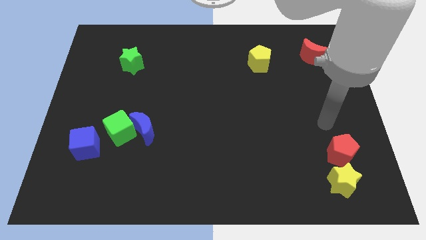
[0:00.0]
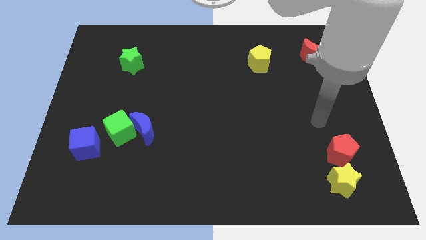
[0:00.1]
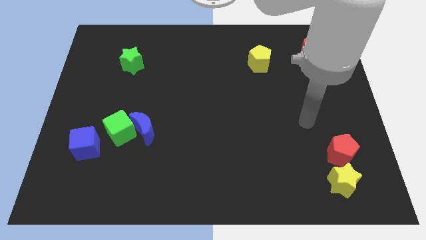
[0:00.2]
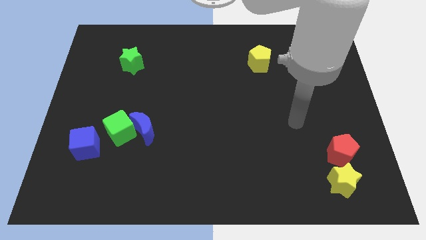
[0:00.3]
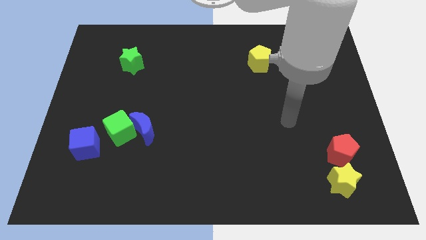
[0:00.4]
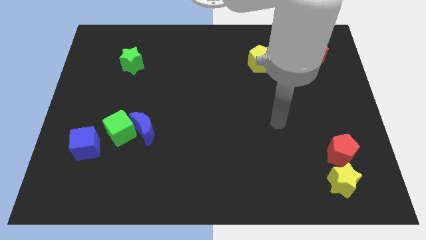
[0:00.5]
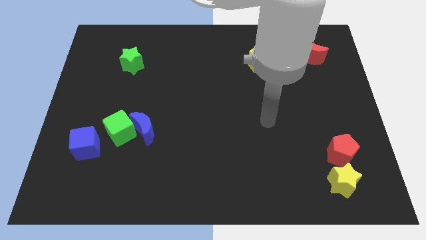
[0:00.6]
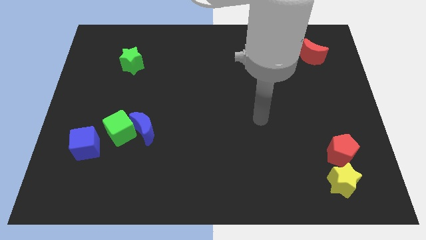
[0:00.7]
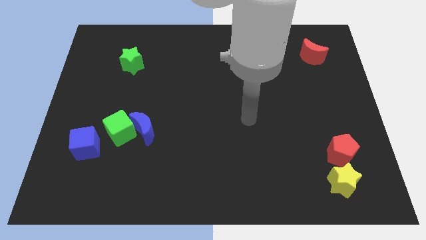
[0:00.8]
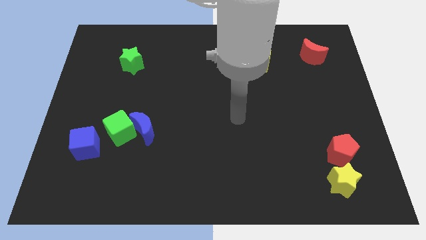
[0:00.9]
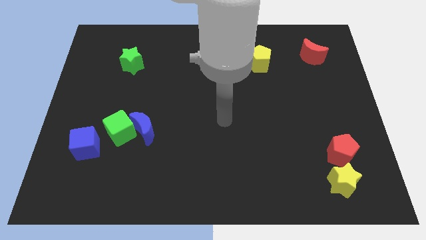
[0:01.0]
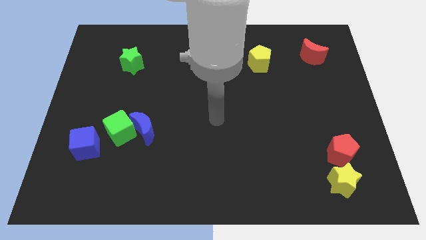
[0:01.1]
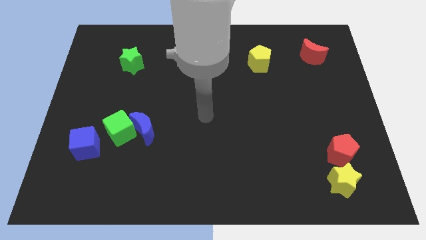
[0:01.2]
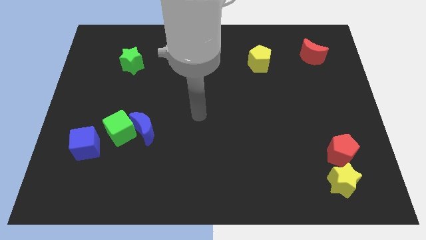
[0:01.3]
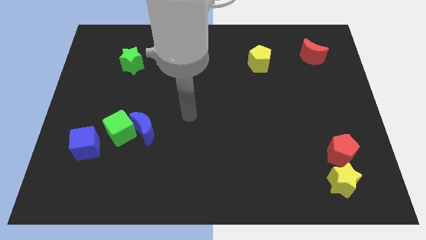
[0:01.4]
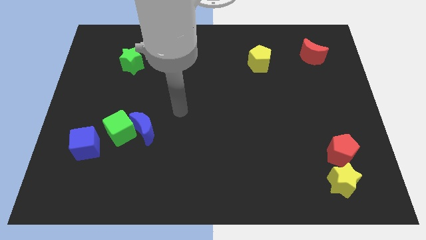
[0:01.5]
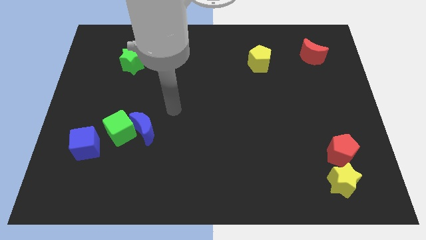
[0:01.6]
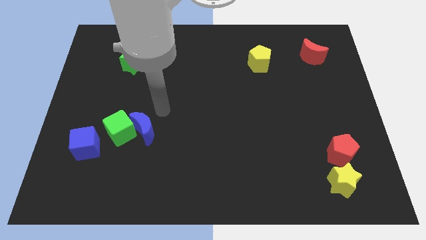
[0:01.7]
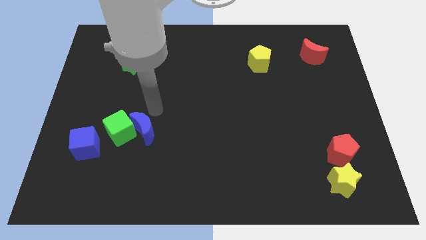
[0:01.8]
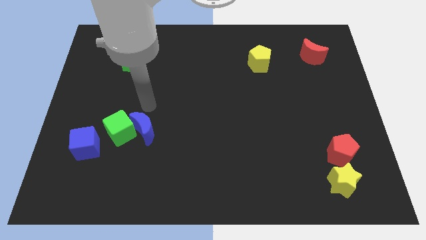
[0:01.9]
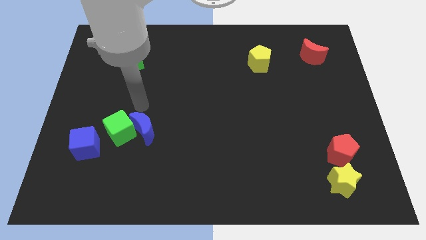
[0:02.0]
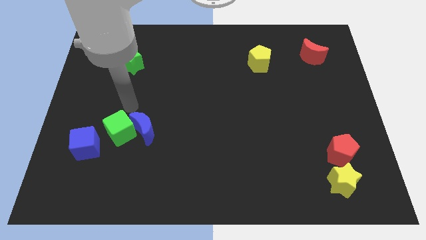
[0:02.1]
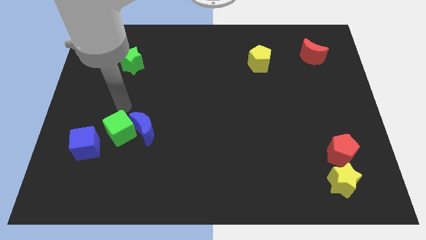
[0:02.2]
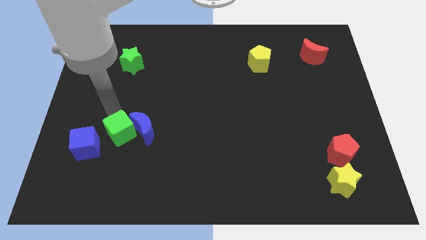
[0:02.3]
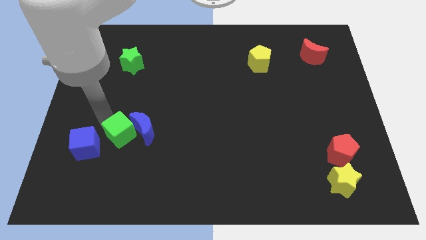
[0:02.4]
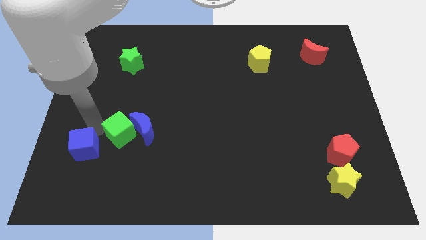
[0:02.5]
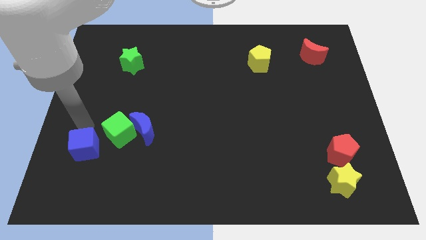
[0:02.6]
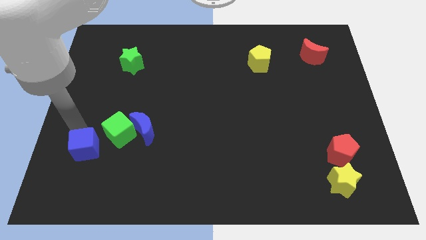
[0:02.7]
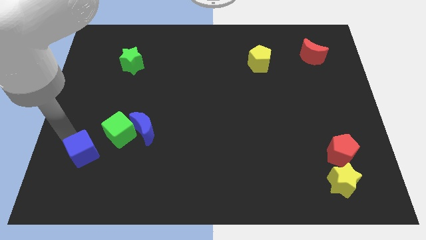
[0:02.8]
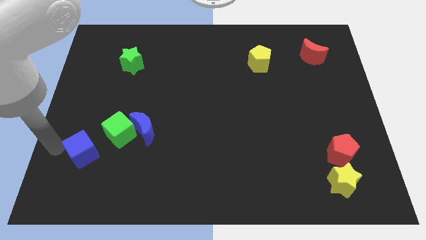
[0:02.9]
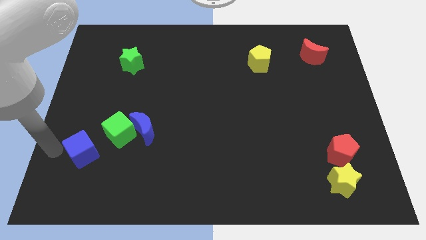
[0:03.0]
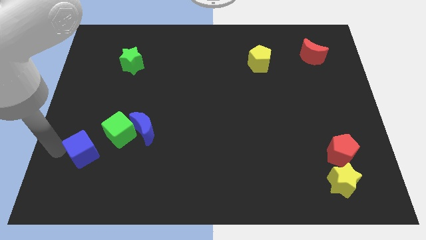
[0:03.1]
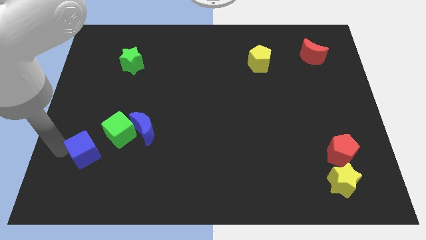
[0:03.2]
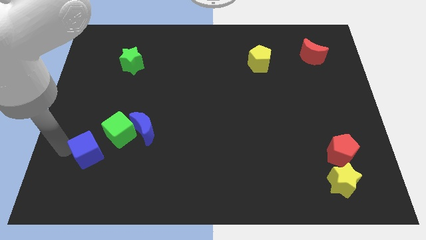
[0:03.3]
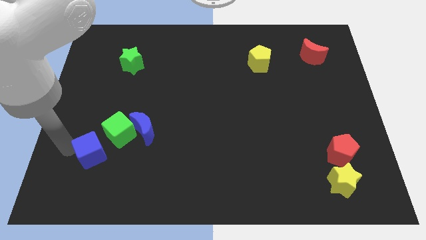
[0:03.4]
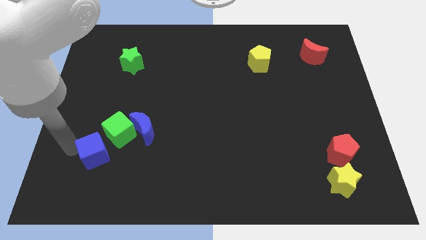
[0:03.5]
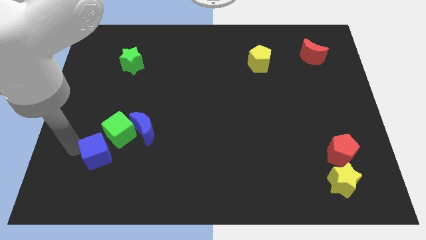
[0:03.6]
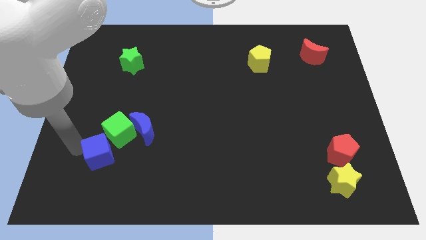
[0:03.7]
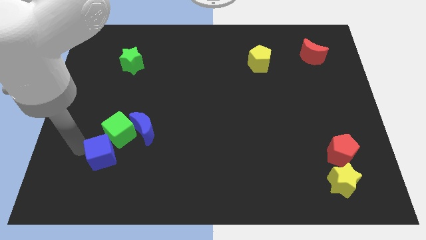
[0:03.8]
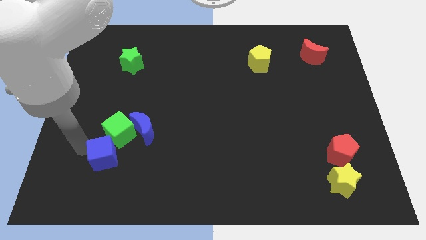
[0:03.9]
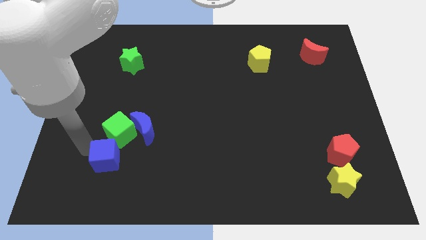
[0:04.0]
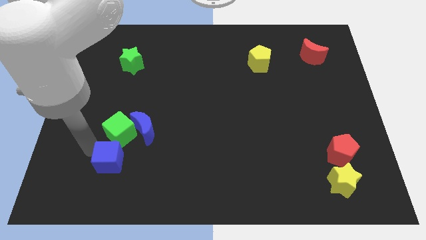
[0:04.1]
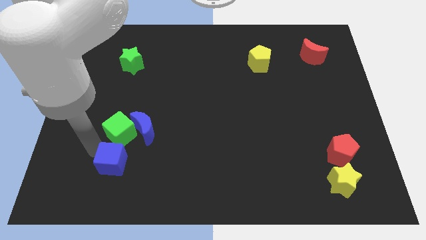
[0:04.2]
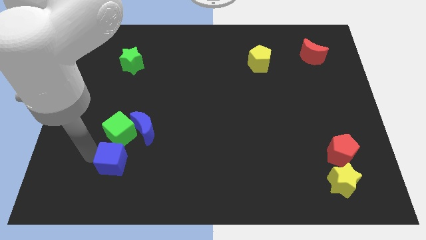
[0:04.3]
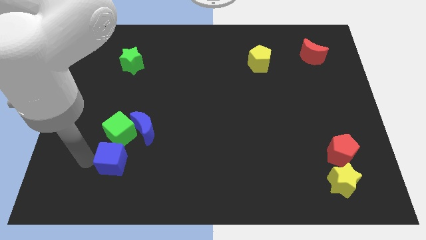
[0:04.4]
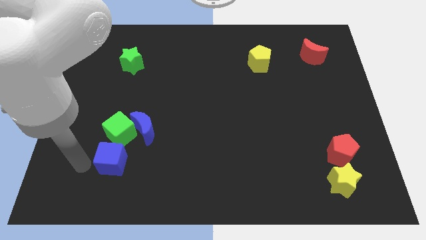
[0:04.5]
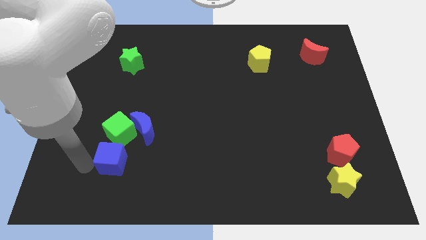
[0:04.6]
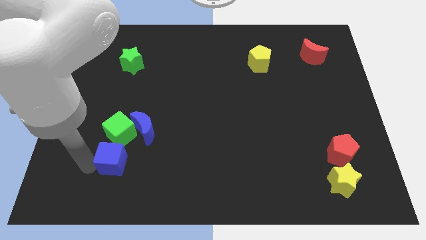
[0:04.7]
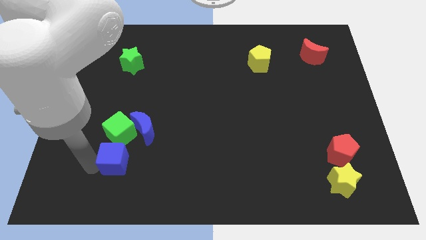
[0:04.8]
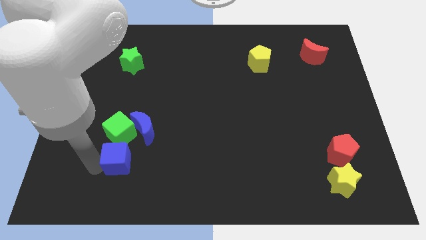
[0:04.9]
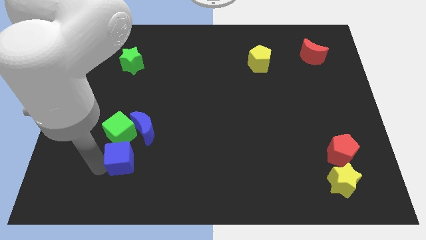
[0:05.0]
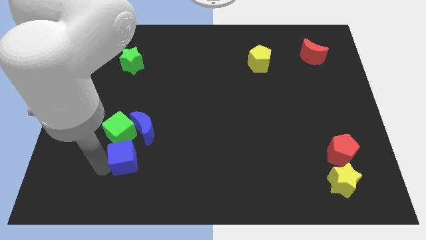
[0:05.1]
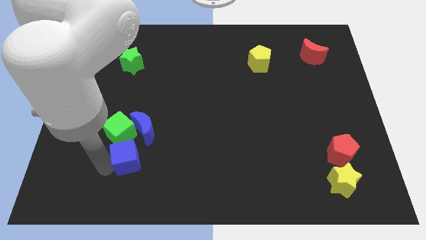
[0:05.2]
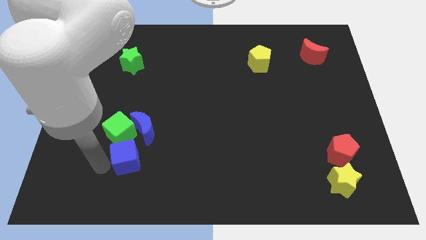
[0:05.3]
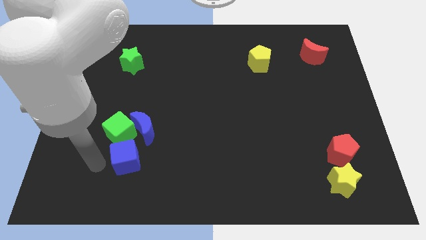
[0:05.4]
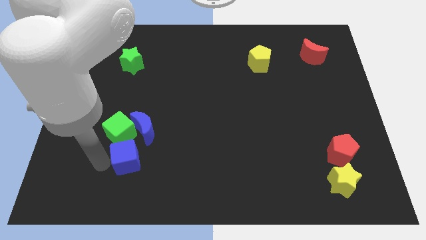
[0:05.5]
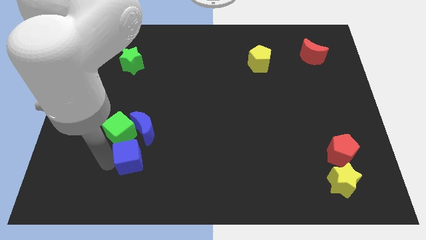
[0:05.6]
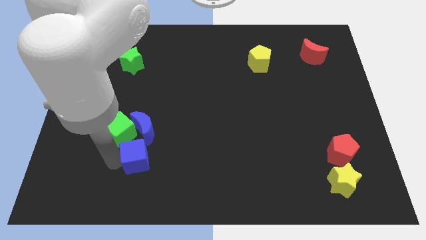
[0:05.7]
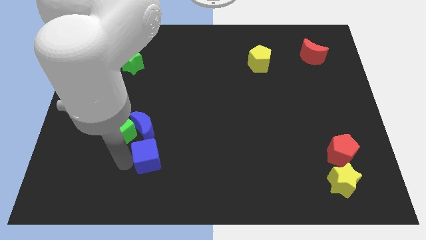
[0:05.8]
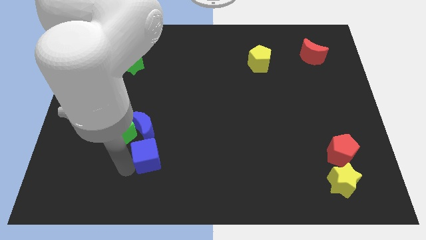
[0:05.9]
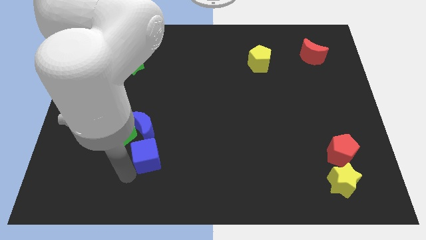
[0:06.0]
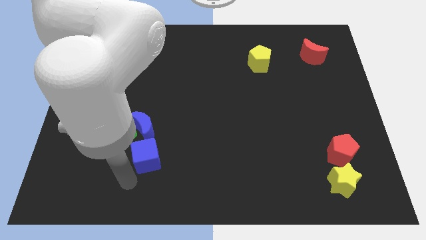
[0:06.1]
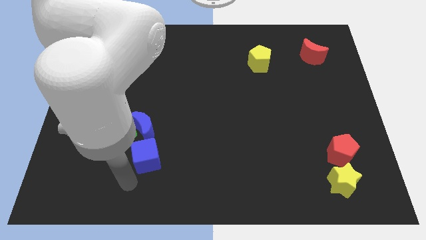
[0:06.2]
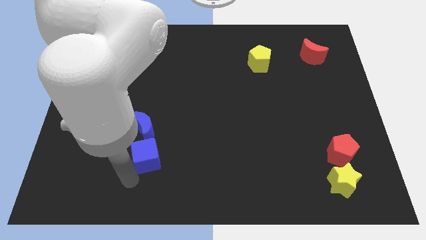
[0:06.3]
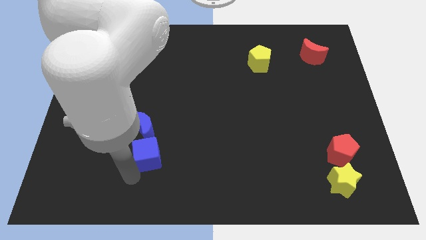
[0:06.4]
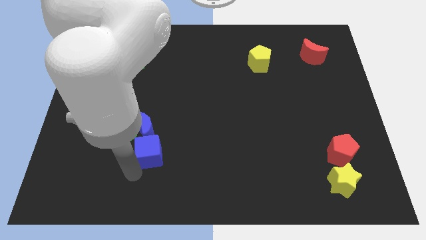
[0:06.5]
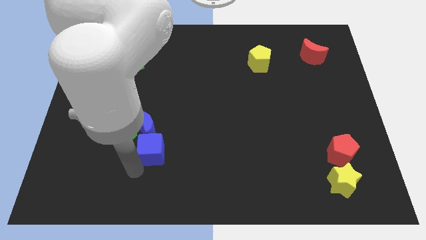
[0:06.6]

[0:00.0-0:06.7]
move the blue cube to the right side of the green cube

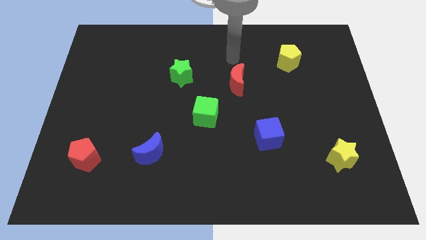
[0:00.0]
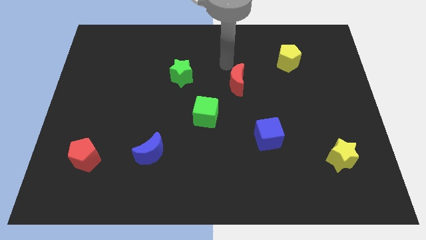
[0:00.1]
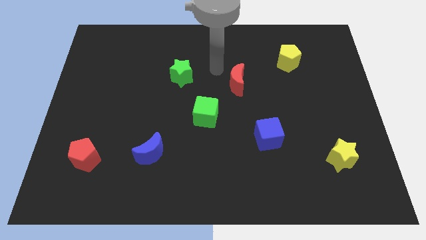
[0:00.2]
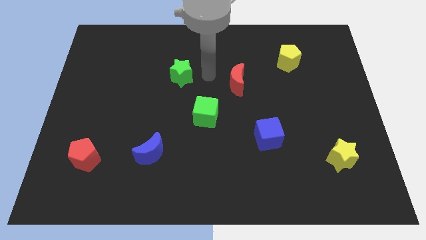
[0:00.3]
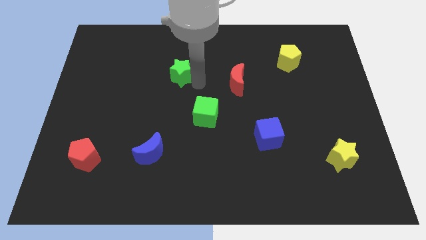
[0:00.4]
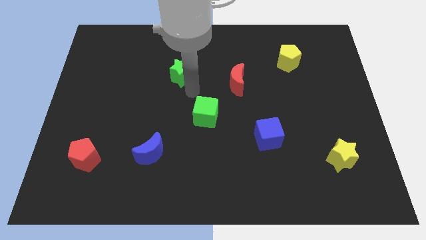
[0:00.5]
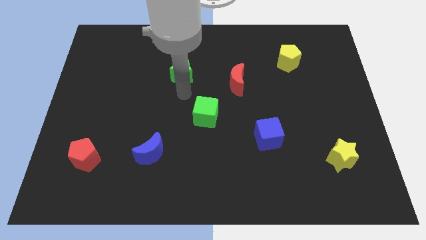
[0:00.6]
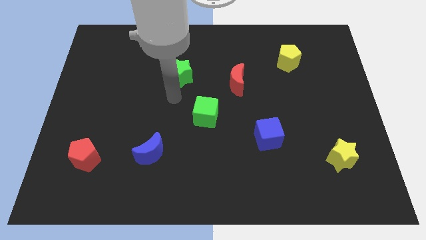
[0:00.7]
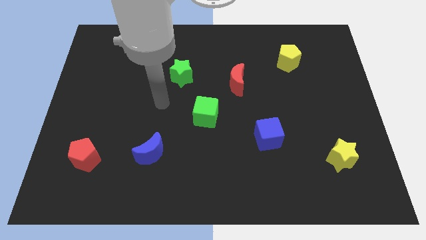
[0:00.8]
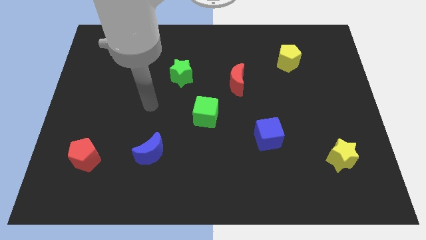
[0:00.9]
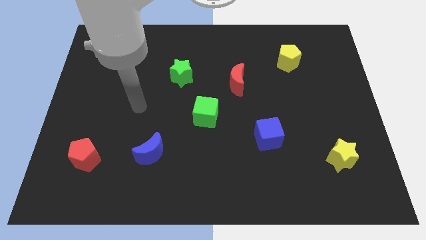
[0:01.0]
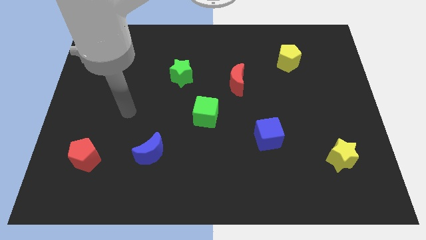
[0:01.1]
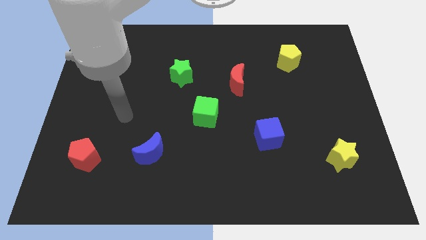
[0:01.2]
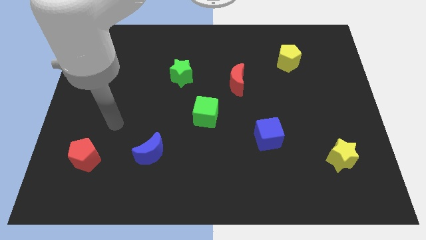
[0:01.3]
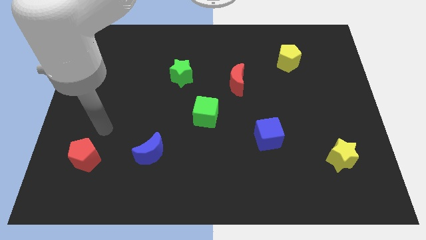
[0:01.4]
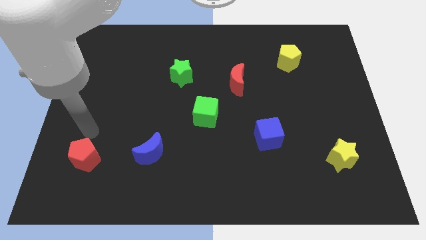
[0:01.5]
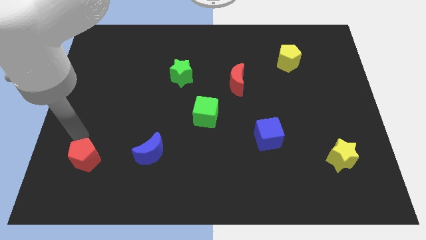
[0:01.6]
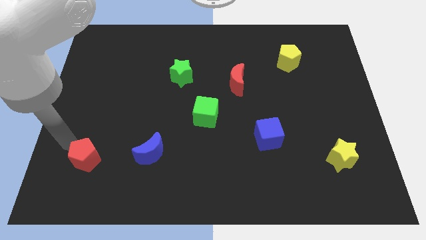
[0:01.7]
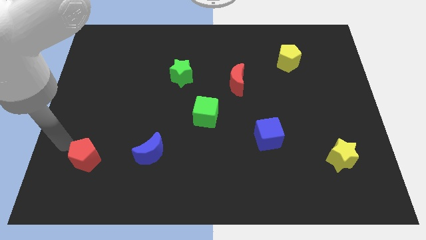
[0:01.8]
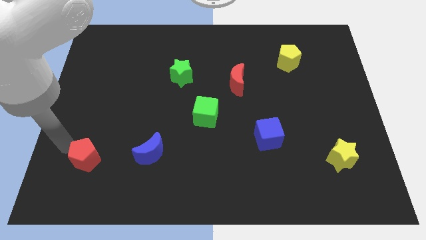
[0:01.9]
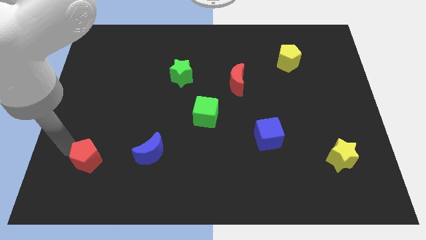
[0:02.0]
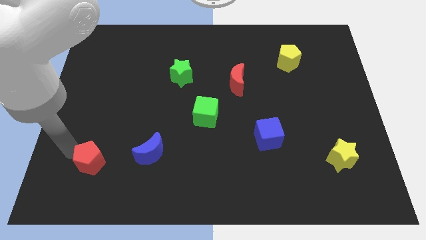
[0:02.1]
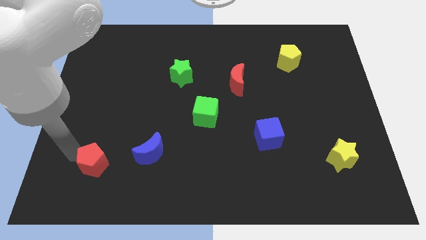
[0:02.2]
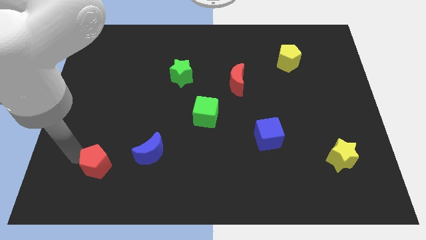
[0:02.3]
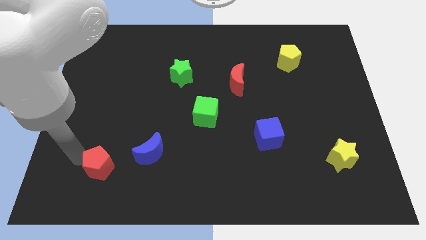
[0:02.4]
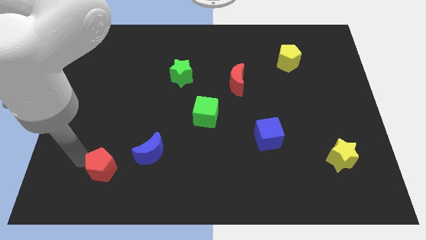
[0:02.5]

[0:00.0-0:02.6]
push the red pentagon to the bottom left of the blue moon
